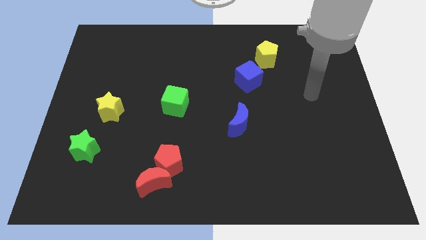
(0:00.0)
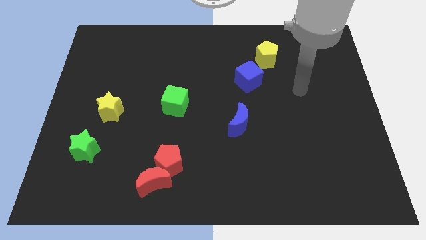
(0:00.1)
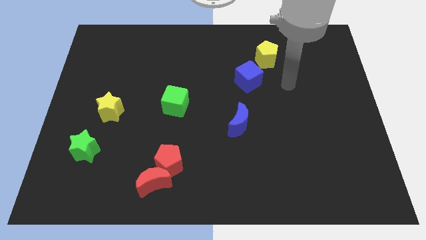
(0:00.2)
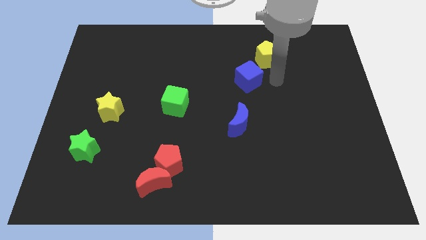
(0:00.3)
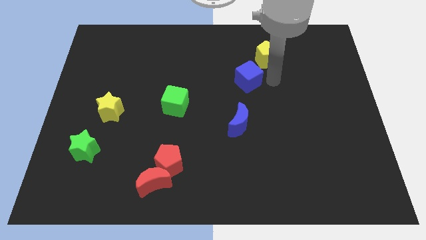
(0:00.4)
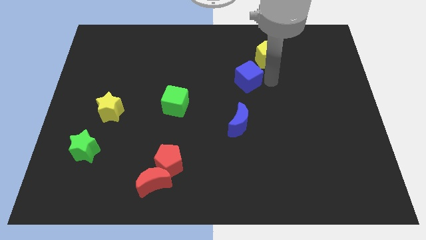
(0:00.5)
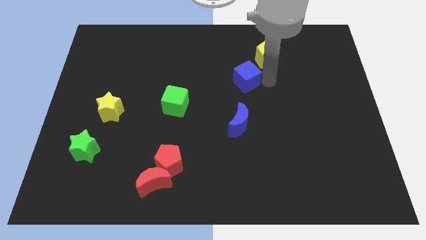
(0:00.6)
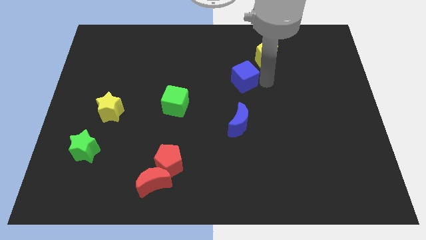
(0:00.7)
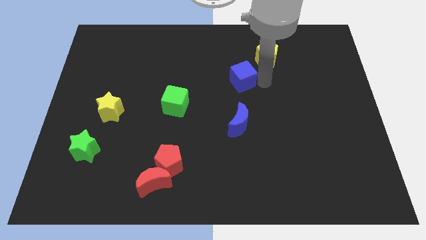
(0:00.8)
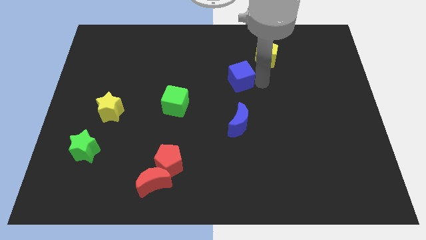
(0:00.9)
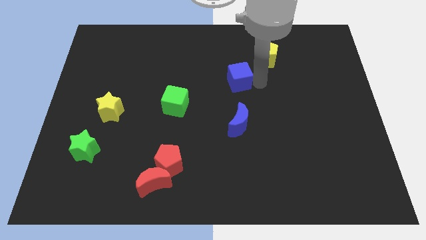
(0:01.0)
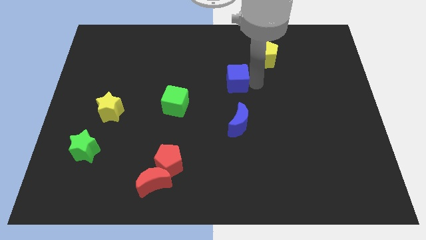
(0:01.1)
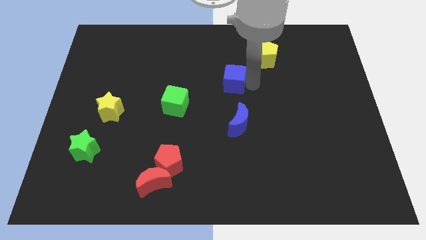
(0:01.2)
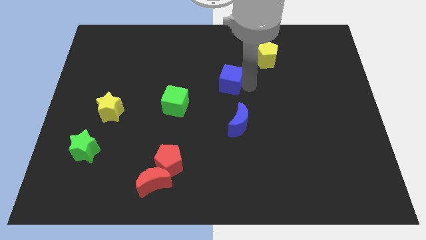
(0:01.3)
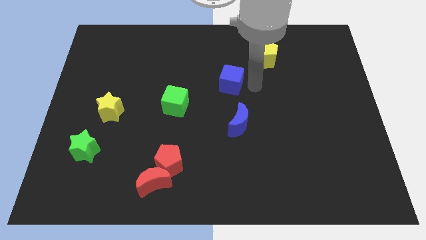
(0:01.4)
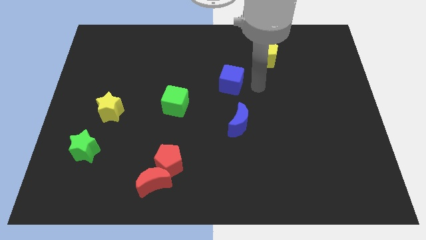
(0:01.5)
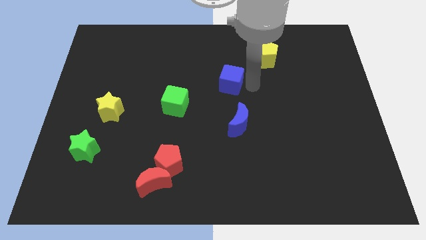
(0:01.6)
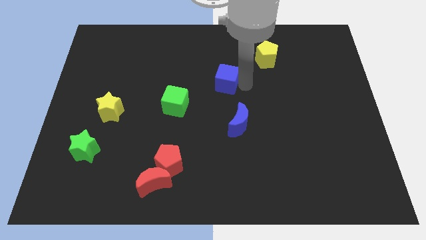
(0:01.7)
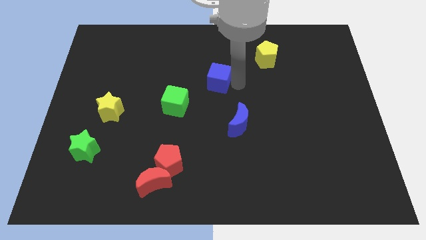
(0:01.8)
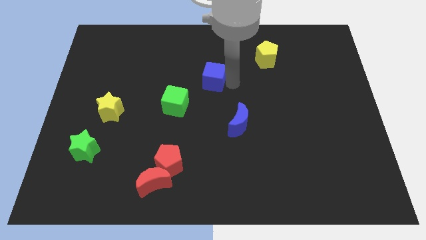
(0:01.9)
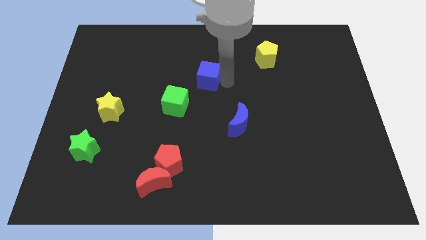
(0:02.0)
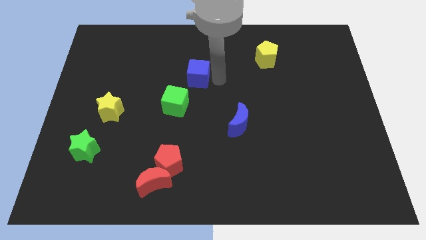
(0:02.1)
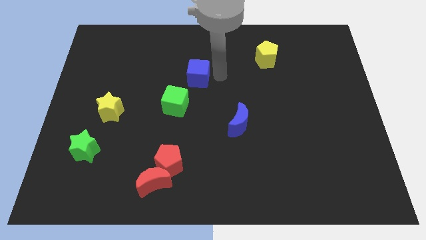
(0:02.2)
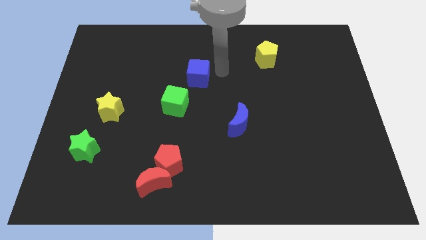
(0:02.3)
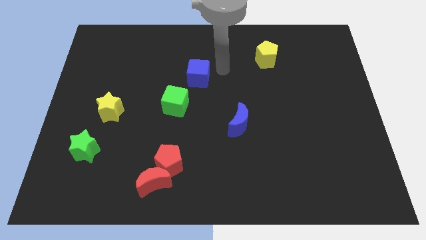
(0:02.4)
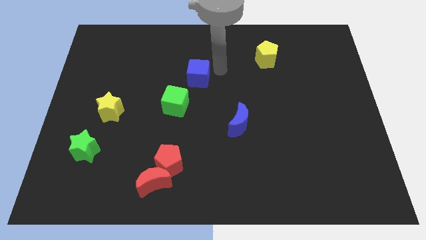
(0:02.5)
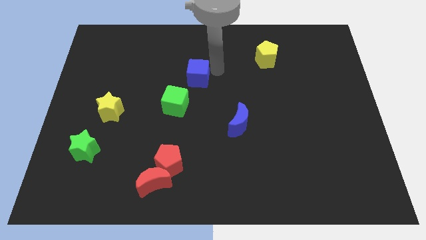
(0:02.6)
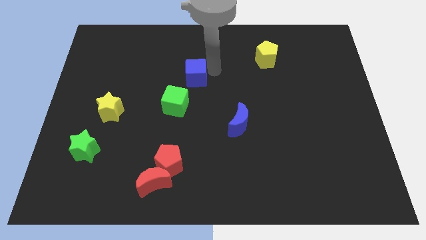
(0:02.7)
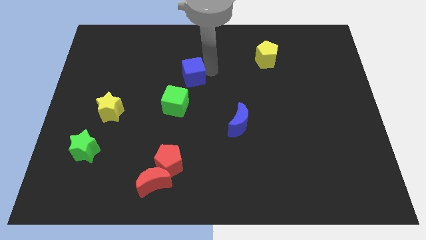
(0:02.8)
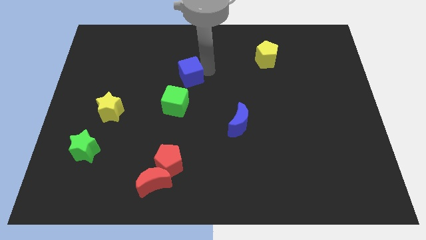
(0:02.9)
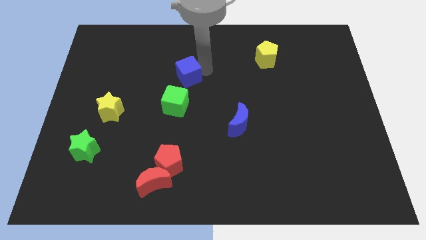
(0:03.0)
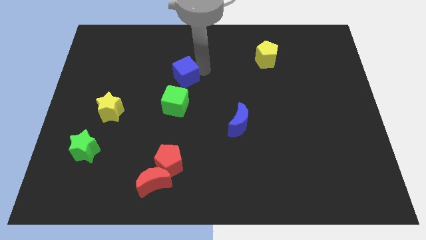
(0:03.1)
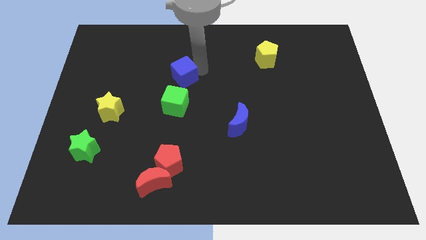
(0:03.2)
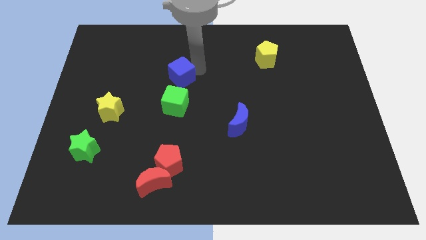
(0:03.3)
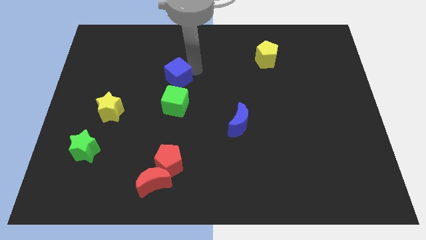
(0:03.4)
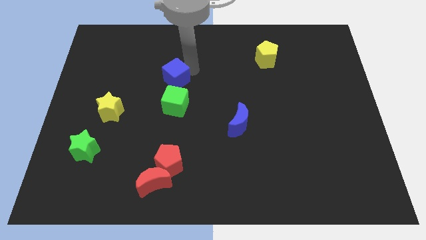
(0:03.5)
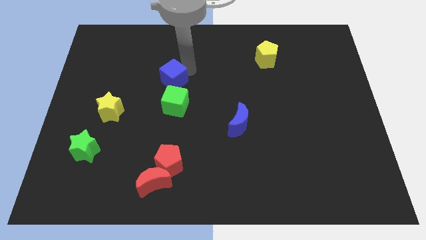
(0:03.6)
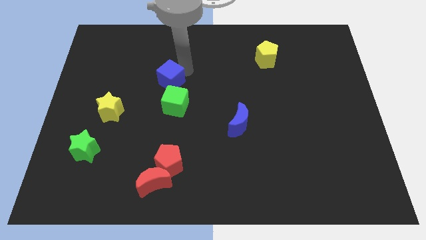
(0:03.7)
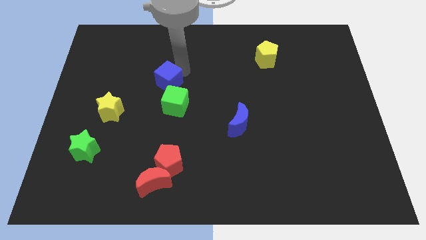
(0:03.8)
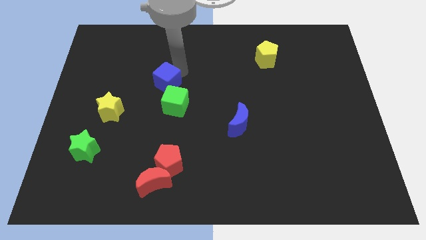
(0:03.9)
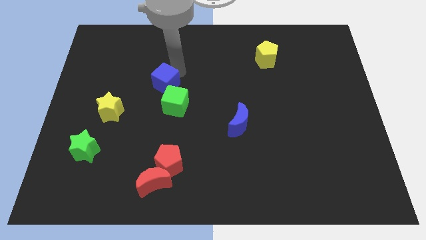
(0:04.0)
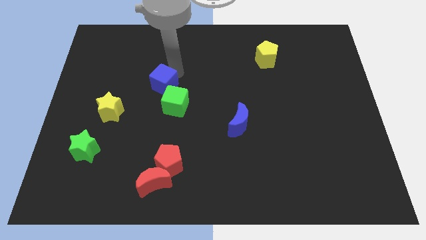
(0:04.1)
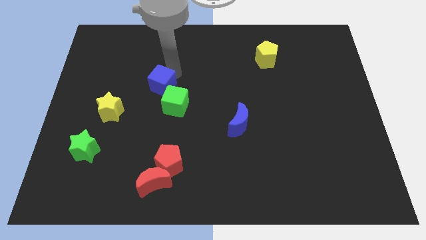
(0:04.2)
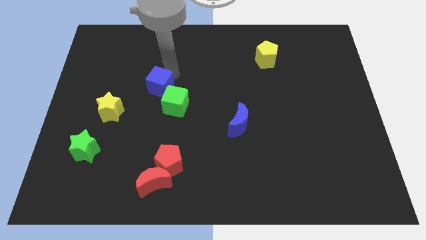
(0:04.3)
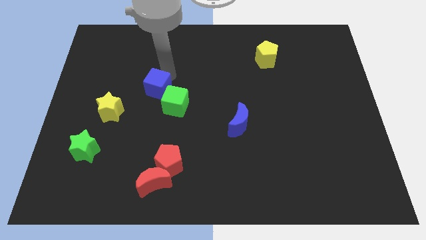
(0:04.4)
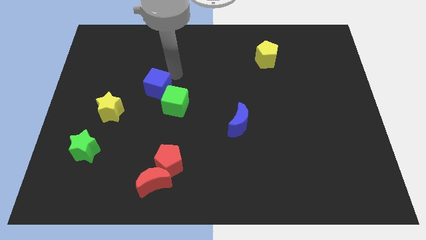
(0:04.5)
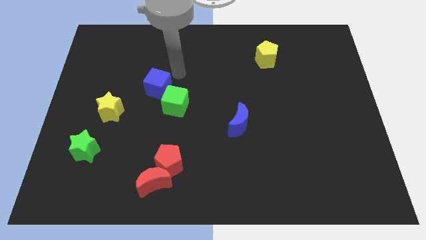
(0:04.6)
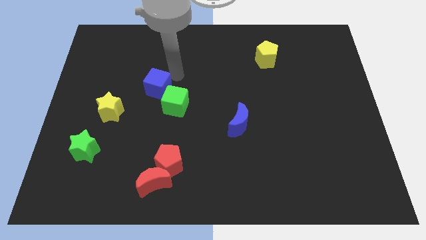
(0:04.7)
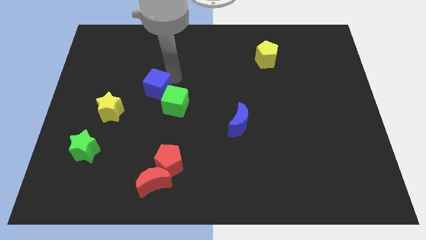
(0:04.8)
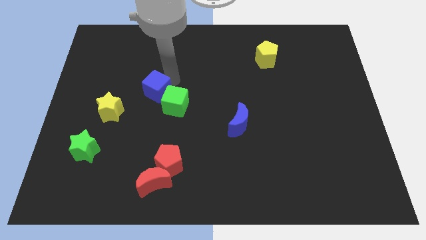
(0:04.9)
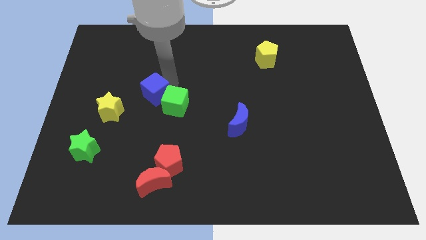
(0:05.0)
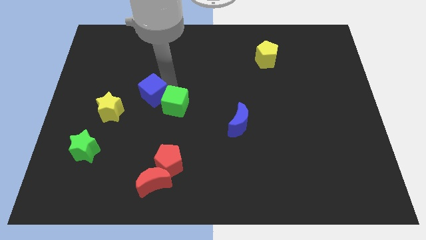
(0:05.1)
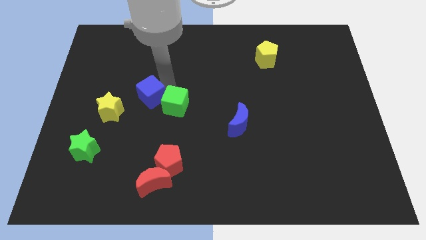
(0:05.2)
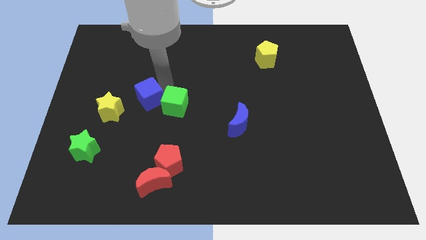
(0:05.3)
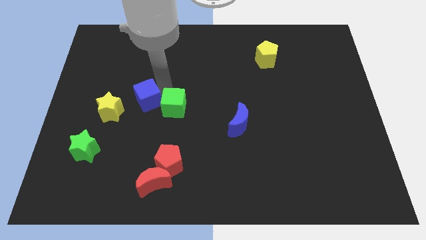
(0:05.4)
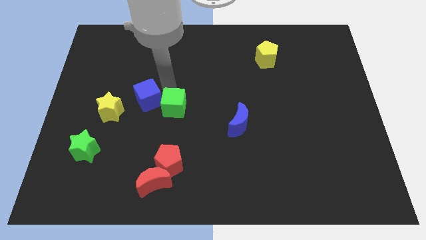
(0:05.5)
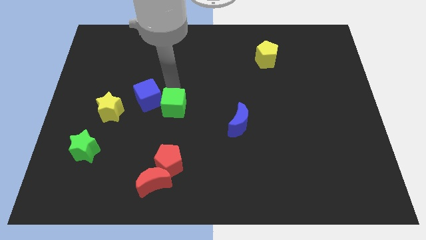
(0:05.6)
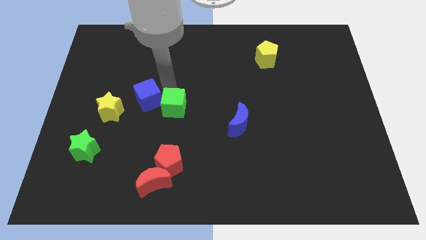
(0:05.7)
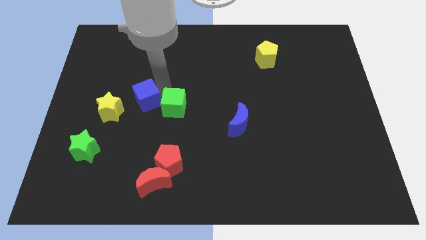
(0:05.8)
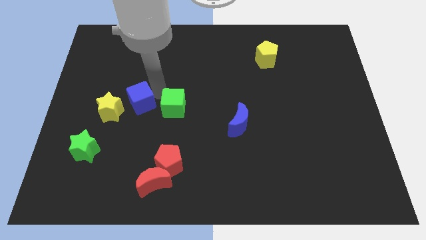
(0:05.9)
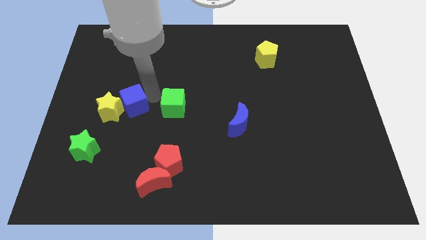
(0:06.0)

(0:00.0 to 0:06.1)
slide the blue cube next to the yellow star

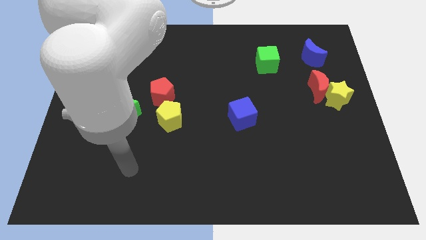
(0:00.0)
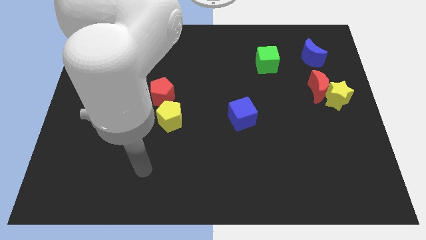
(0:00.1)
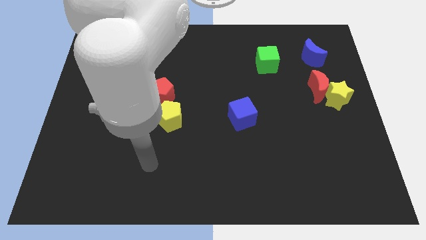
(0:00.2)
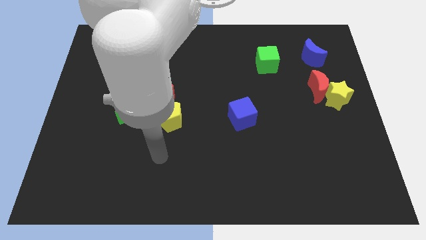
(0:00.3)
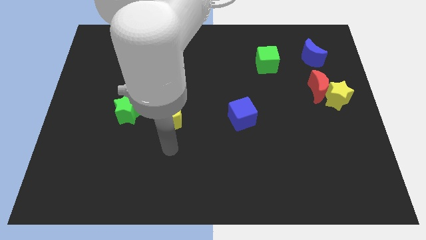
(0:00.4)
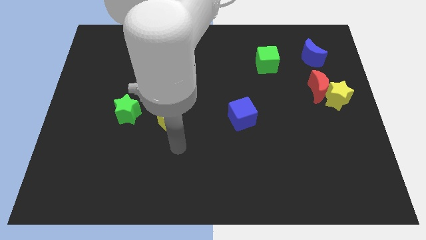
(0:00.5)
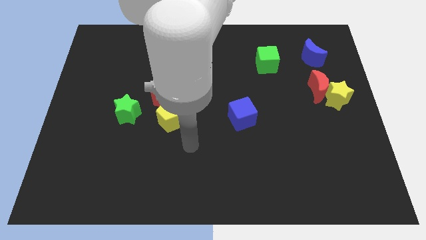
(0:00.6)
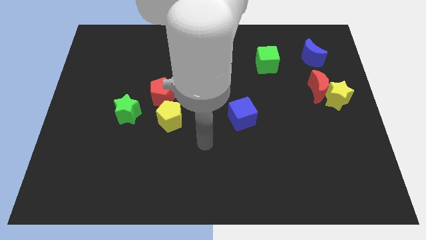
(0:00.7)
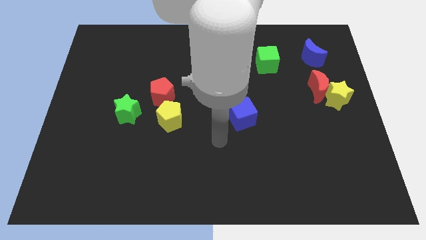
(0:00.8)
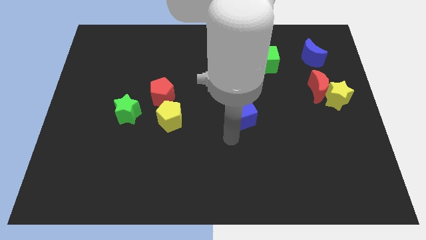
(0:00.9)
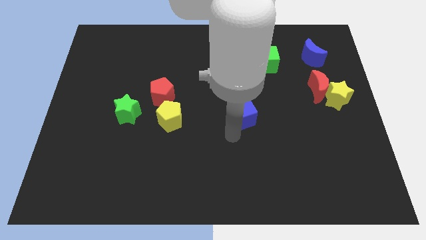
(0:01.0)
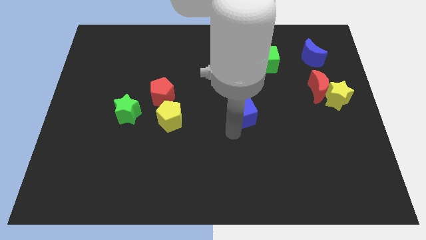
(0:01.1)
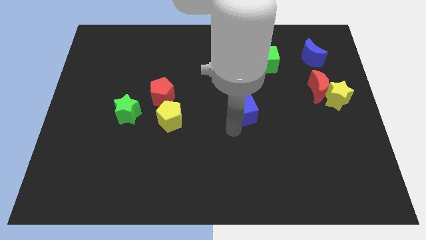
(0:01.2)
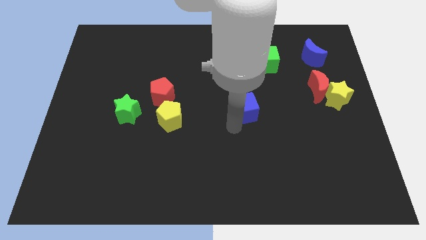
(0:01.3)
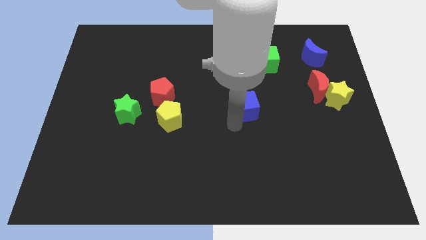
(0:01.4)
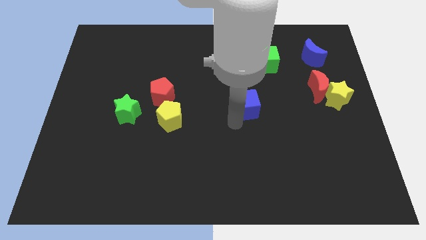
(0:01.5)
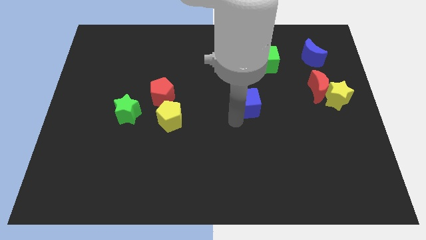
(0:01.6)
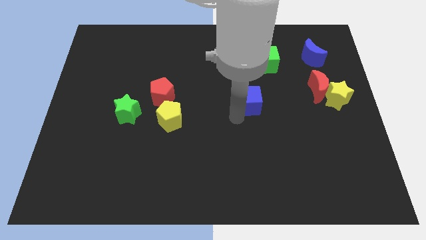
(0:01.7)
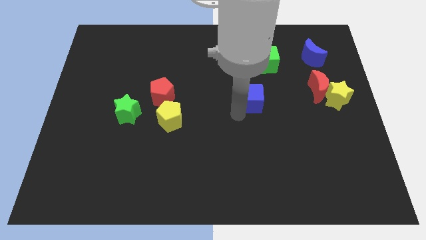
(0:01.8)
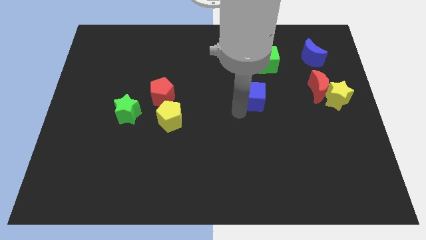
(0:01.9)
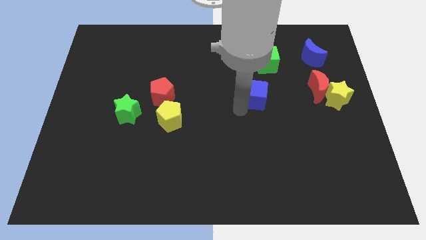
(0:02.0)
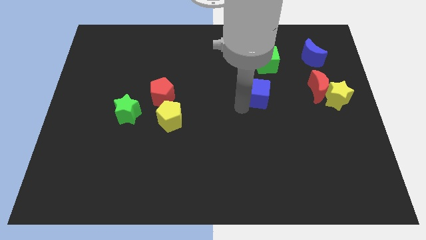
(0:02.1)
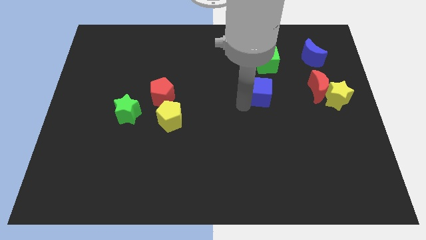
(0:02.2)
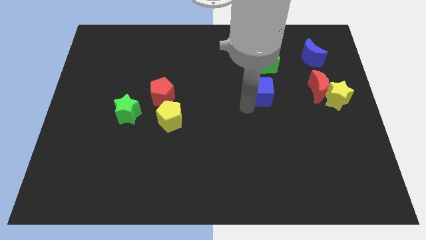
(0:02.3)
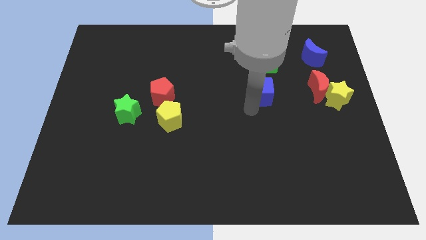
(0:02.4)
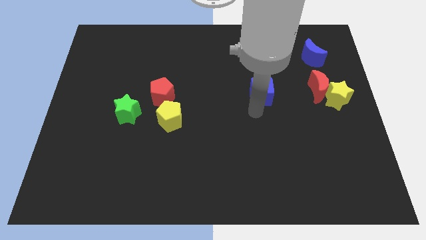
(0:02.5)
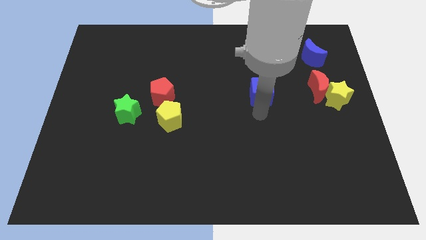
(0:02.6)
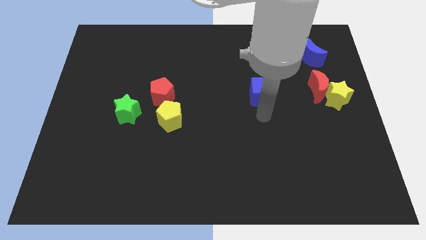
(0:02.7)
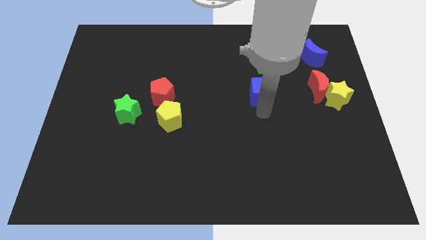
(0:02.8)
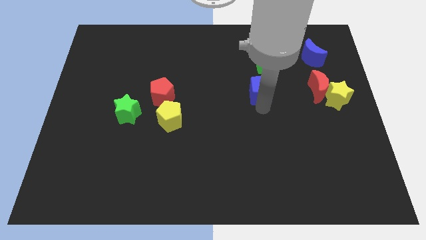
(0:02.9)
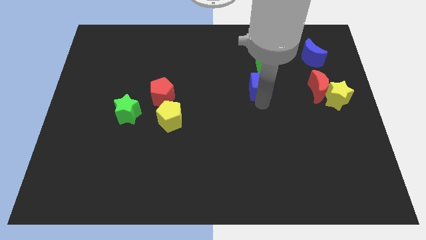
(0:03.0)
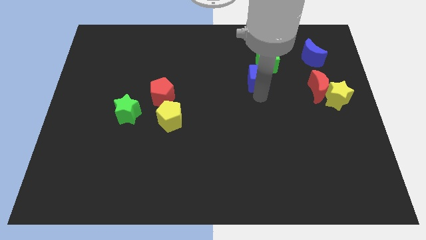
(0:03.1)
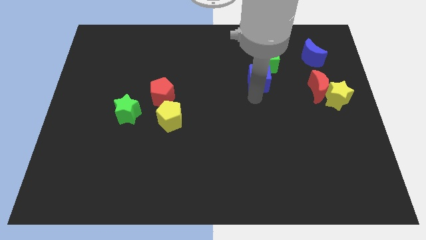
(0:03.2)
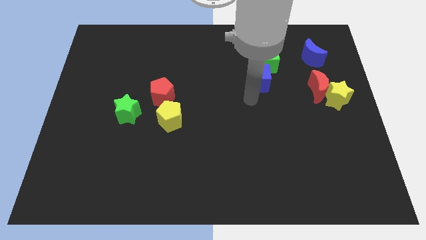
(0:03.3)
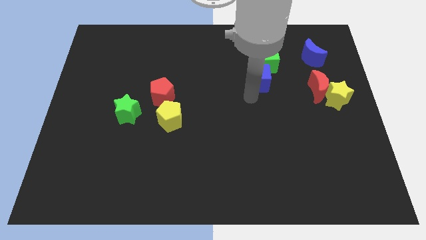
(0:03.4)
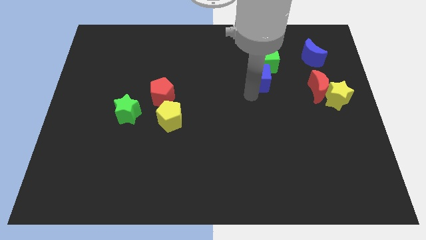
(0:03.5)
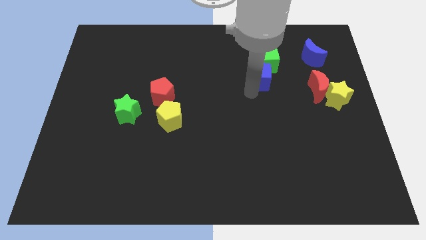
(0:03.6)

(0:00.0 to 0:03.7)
push the blue cube close to the green cube
